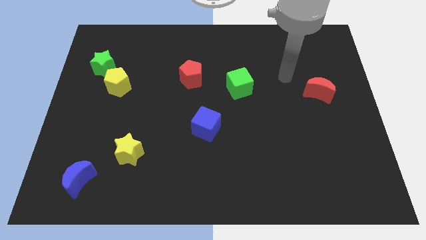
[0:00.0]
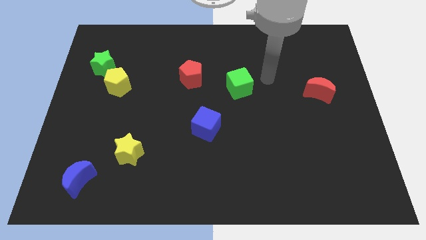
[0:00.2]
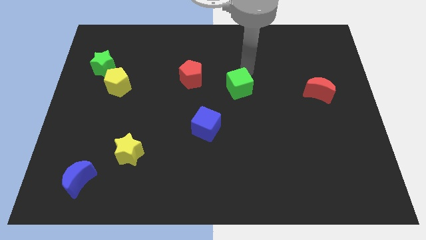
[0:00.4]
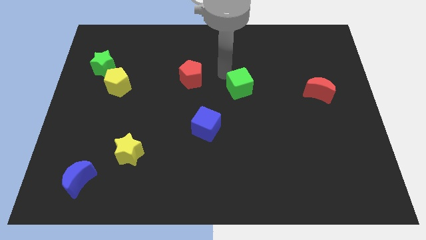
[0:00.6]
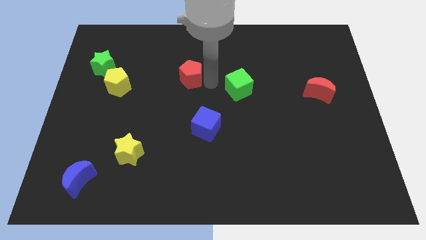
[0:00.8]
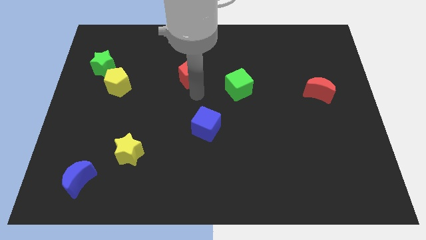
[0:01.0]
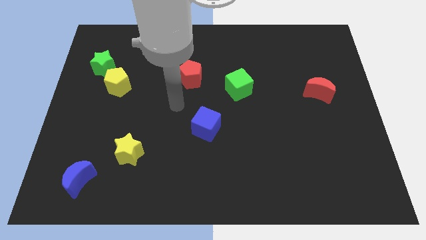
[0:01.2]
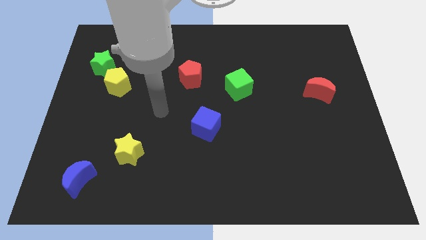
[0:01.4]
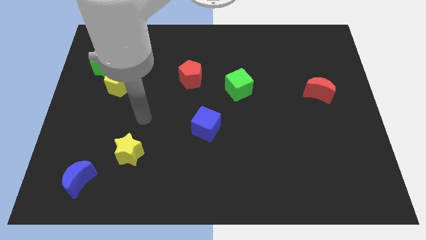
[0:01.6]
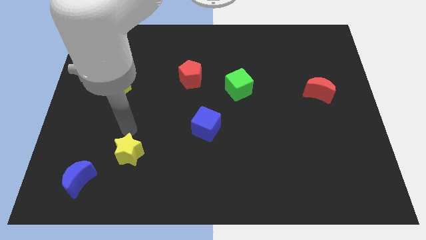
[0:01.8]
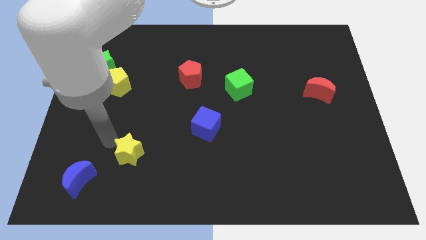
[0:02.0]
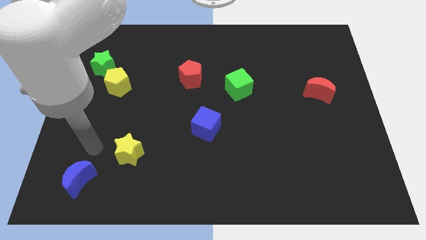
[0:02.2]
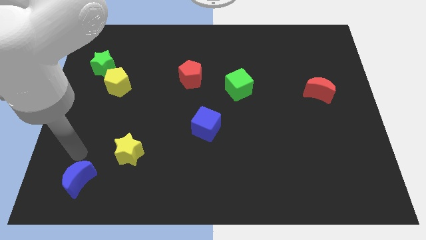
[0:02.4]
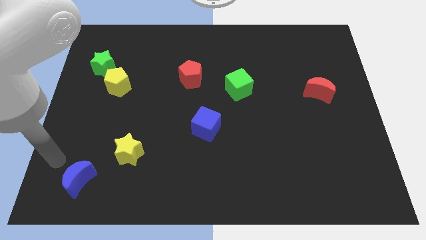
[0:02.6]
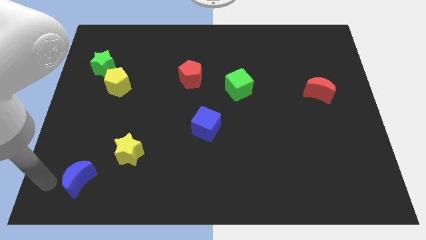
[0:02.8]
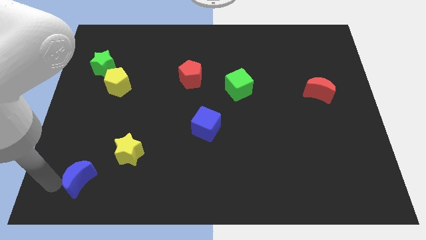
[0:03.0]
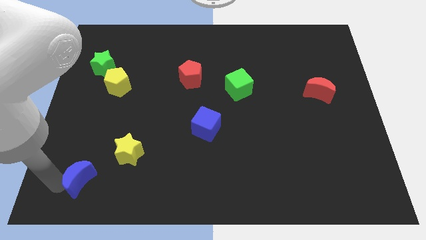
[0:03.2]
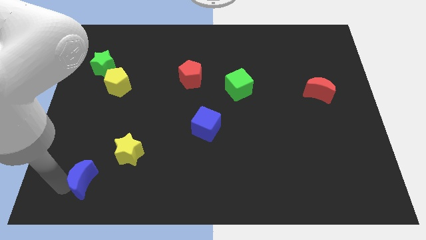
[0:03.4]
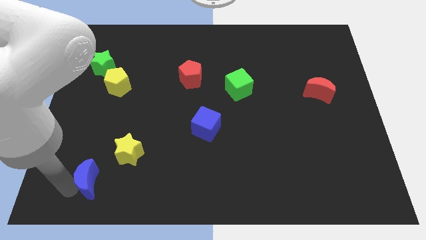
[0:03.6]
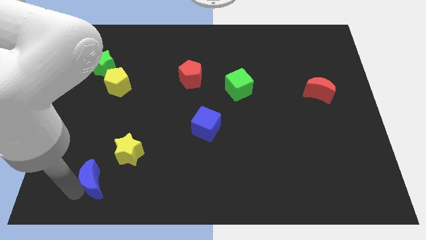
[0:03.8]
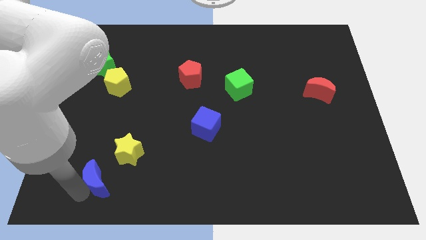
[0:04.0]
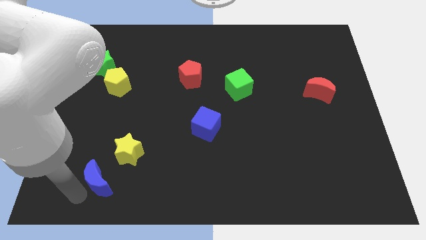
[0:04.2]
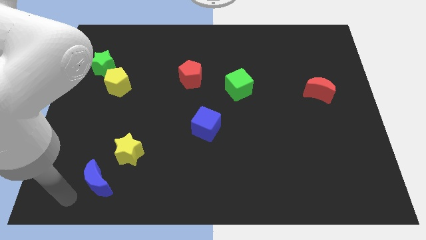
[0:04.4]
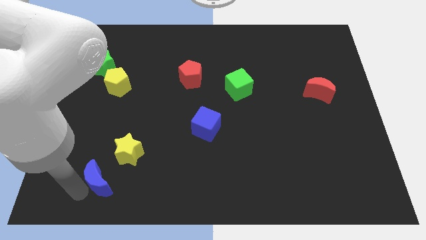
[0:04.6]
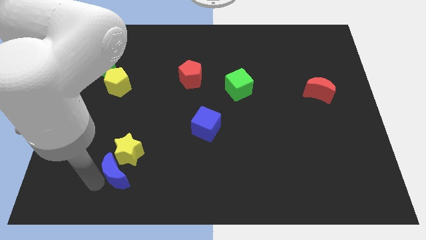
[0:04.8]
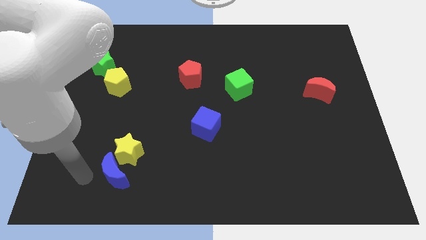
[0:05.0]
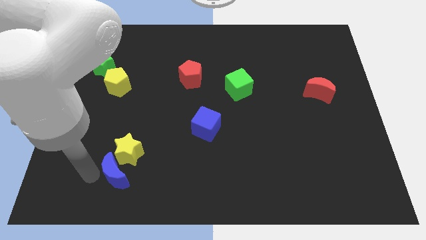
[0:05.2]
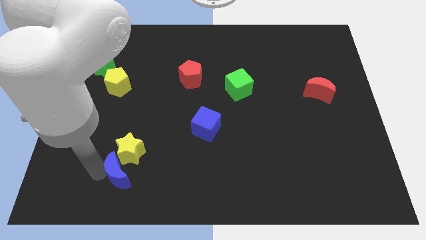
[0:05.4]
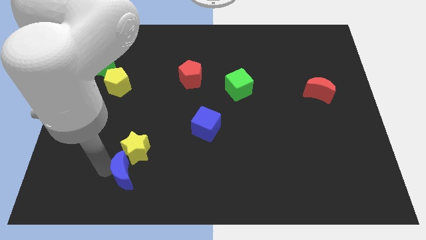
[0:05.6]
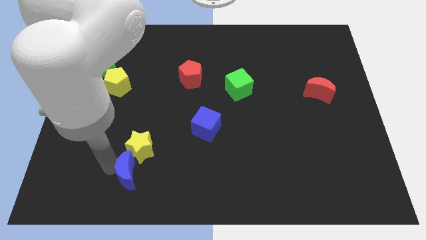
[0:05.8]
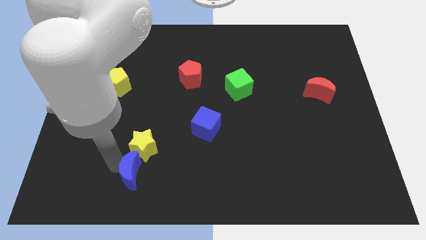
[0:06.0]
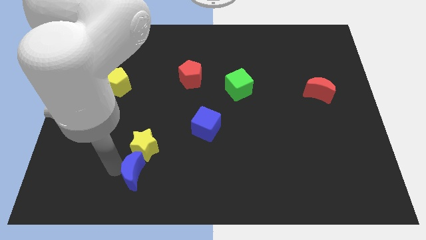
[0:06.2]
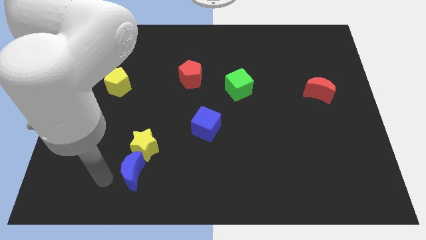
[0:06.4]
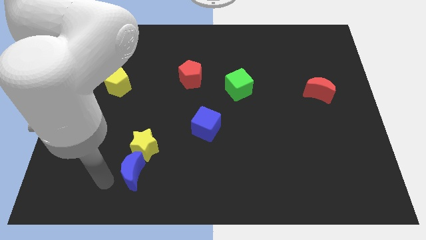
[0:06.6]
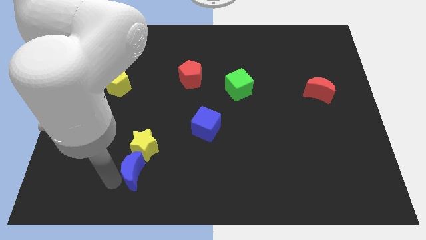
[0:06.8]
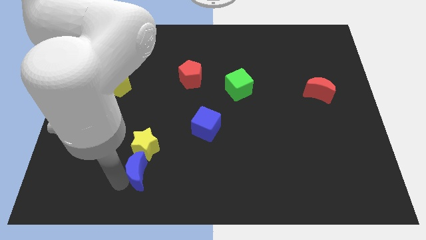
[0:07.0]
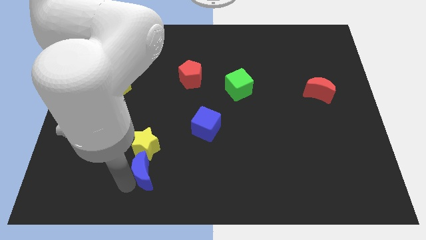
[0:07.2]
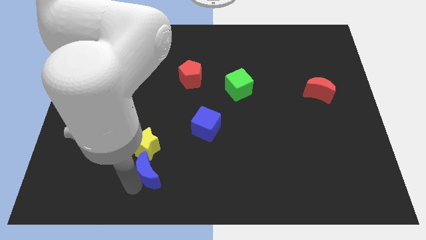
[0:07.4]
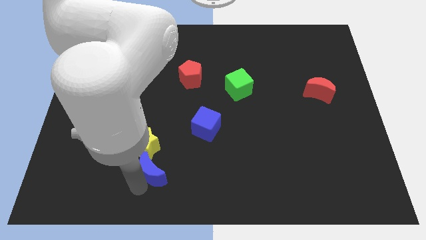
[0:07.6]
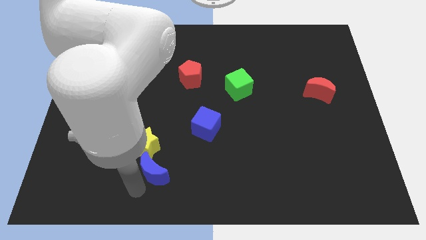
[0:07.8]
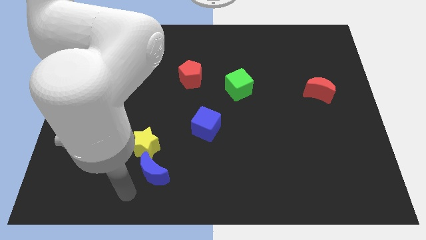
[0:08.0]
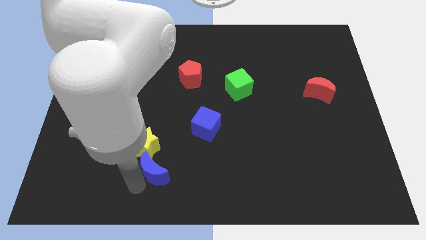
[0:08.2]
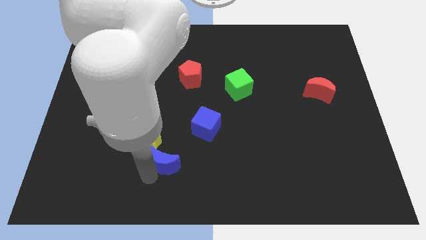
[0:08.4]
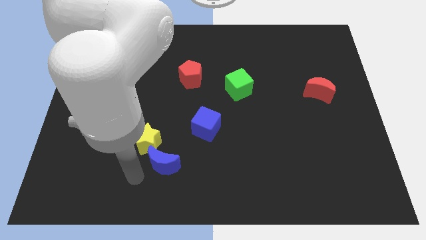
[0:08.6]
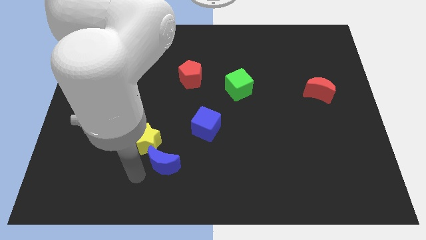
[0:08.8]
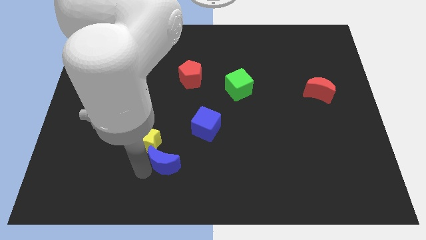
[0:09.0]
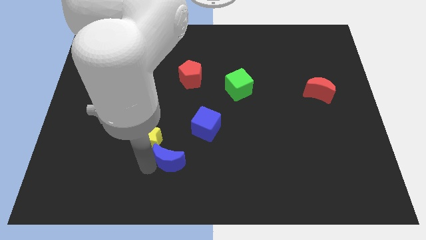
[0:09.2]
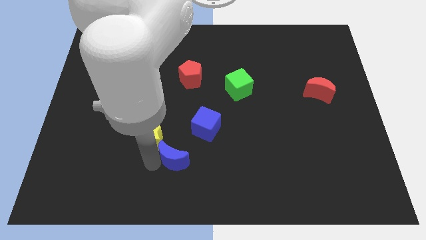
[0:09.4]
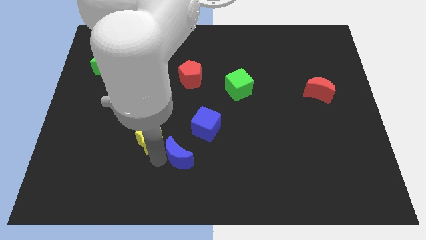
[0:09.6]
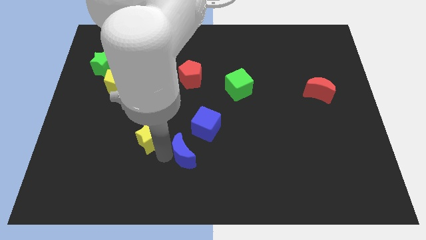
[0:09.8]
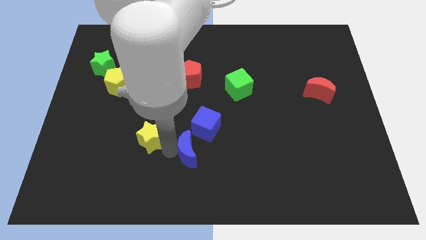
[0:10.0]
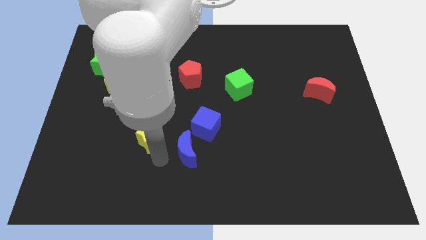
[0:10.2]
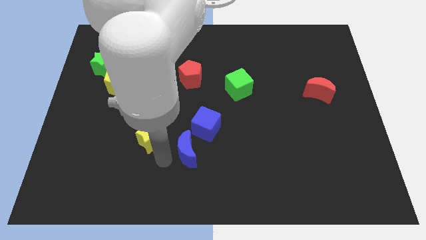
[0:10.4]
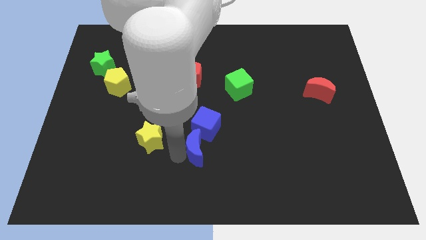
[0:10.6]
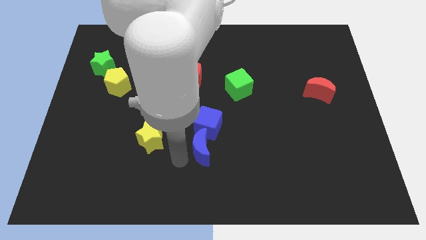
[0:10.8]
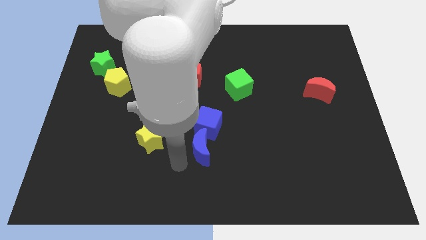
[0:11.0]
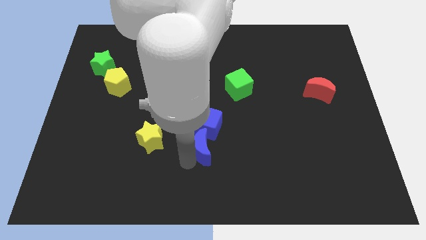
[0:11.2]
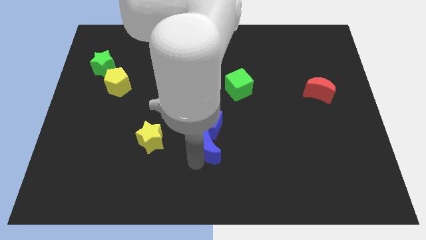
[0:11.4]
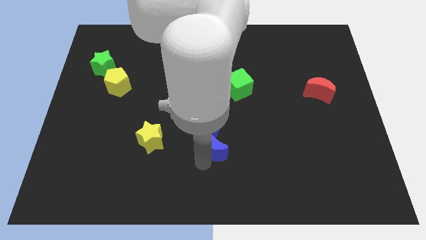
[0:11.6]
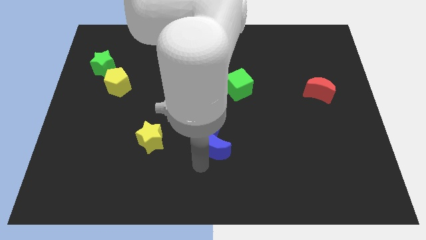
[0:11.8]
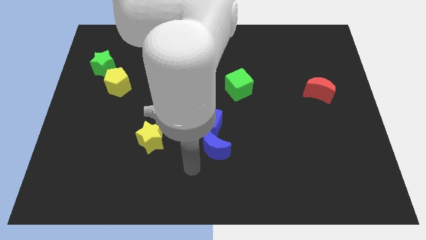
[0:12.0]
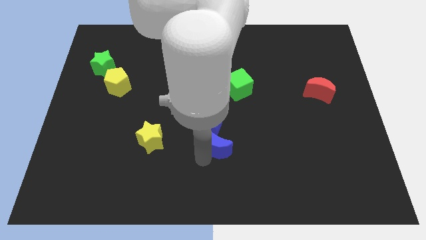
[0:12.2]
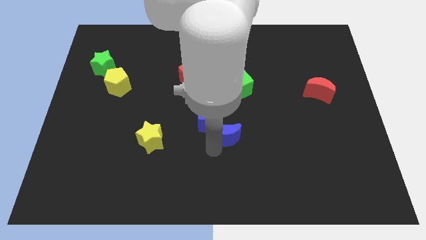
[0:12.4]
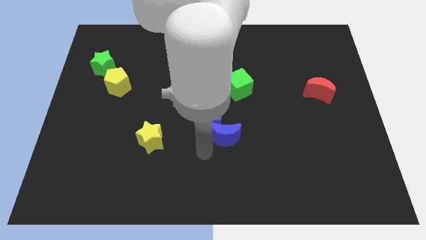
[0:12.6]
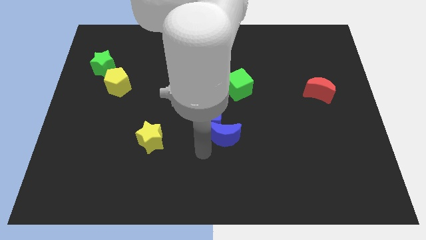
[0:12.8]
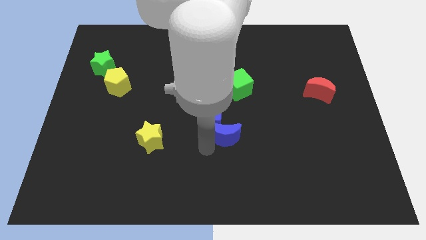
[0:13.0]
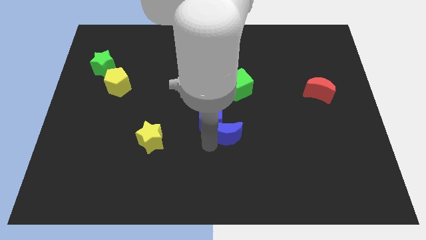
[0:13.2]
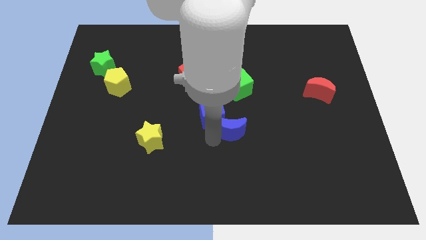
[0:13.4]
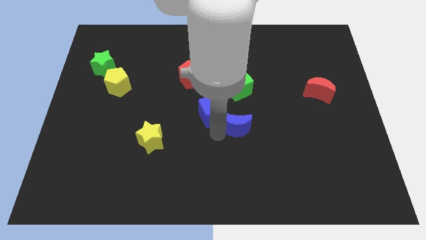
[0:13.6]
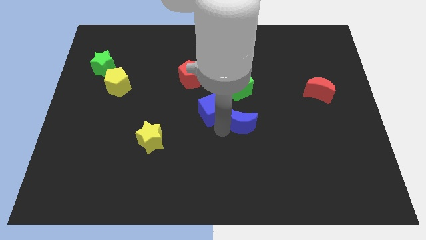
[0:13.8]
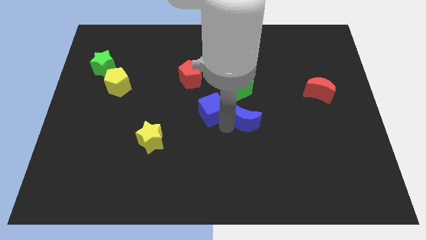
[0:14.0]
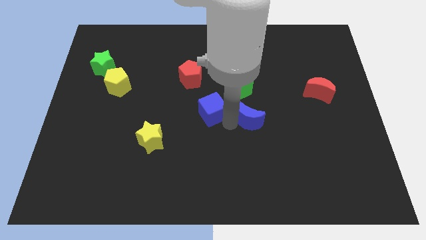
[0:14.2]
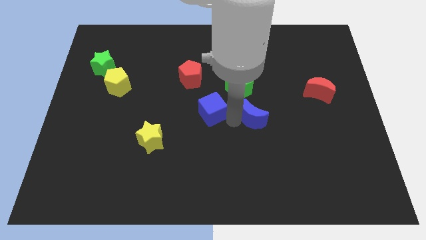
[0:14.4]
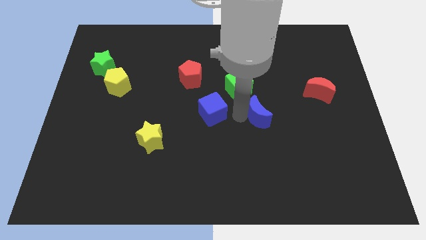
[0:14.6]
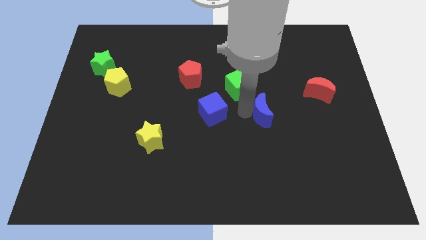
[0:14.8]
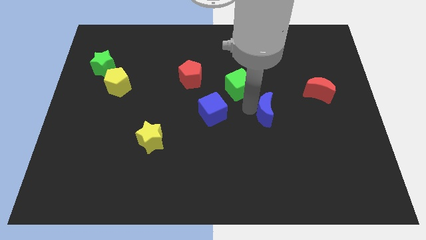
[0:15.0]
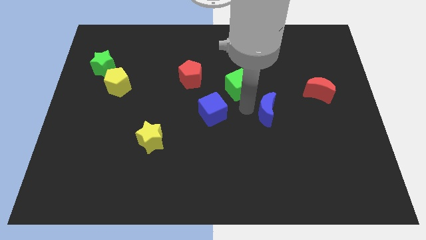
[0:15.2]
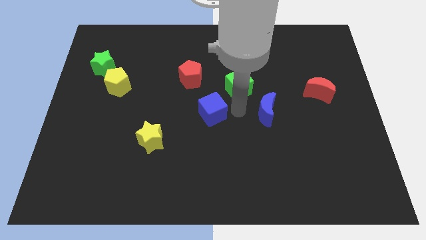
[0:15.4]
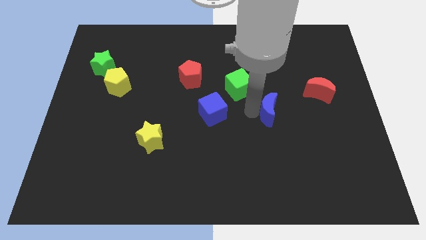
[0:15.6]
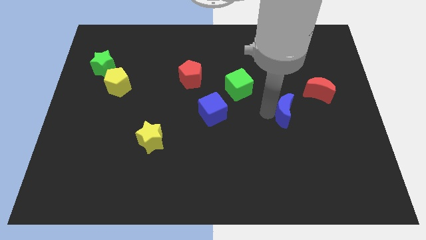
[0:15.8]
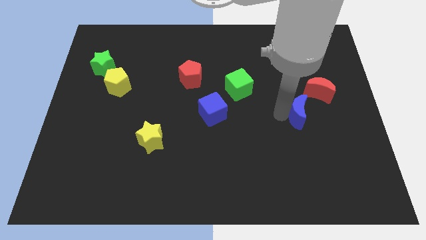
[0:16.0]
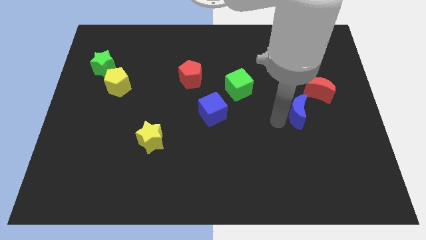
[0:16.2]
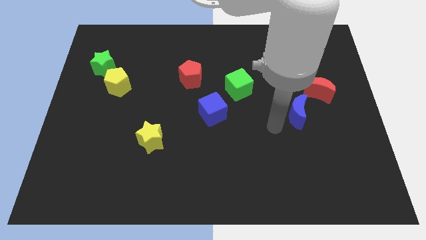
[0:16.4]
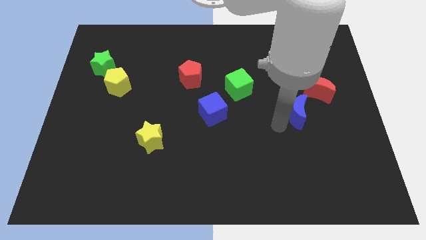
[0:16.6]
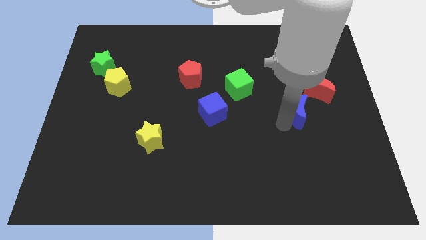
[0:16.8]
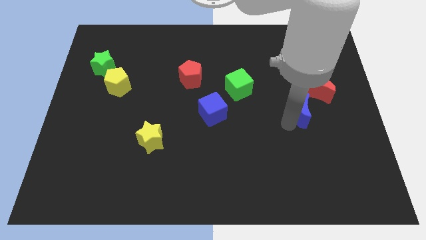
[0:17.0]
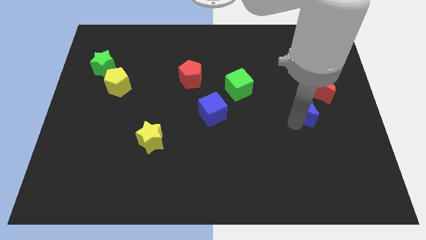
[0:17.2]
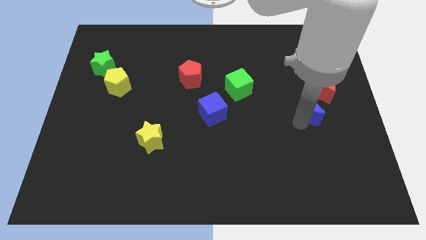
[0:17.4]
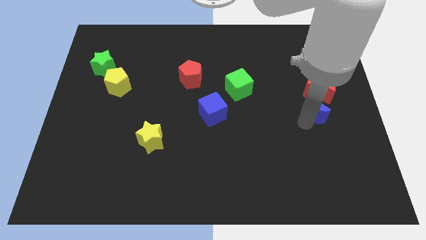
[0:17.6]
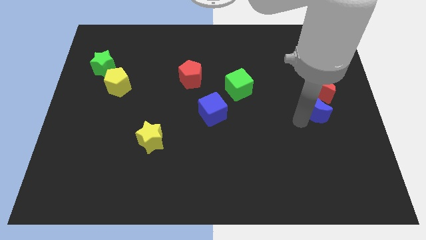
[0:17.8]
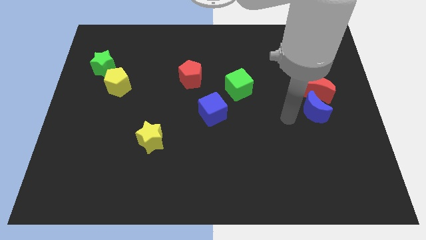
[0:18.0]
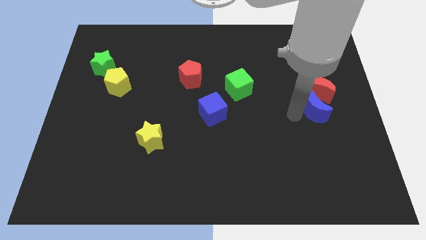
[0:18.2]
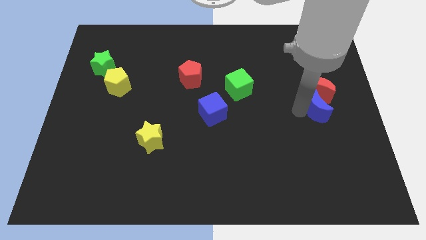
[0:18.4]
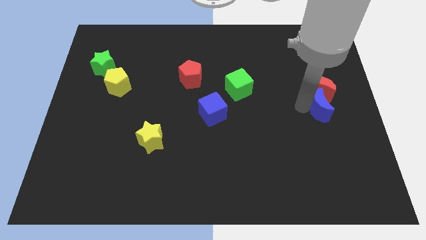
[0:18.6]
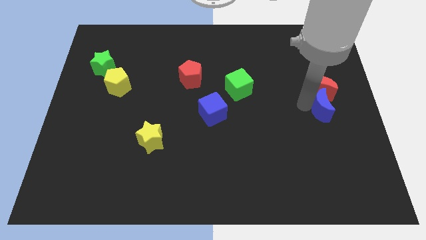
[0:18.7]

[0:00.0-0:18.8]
move the blue moon to the right side
